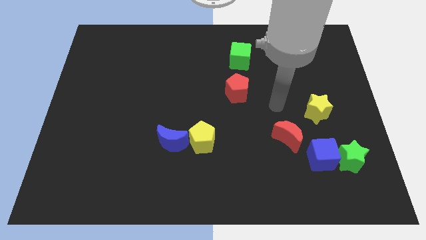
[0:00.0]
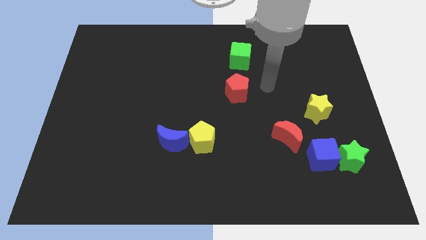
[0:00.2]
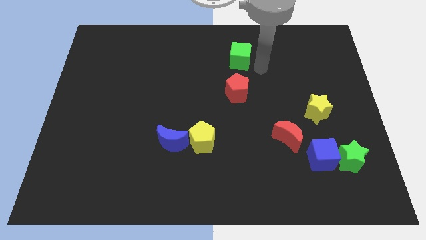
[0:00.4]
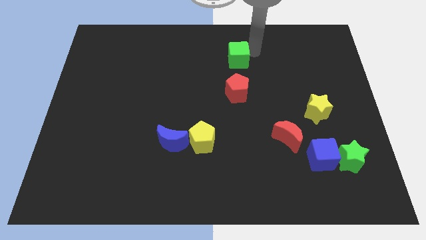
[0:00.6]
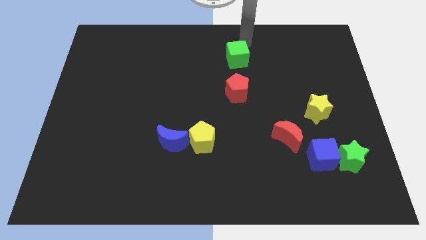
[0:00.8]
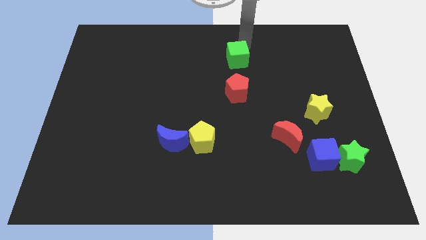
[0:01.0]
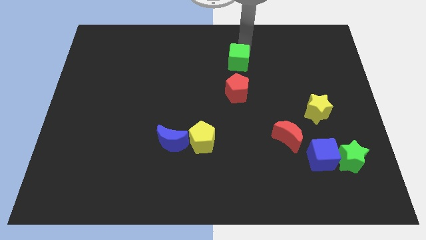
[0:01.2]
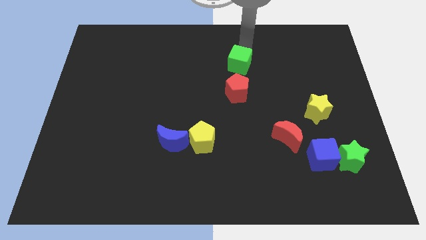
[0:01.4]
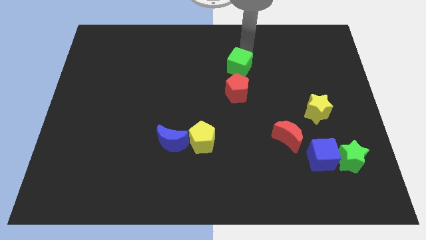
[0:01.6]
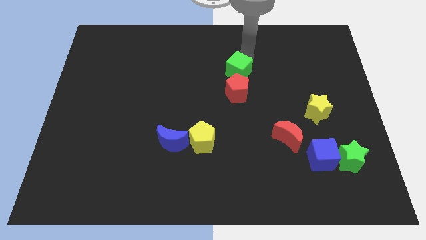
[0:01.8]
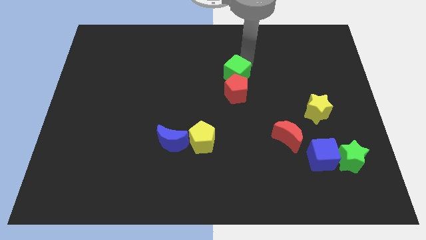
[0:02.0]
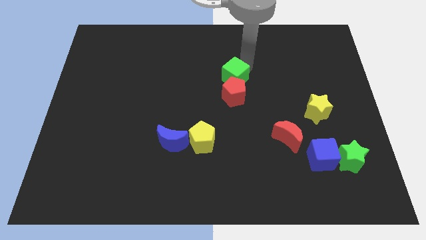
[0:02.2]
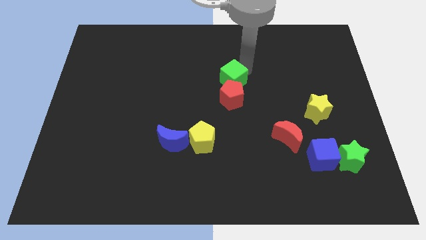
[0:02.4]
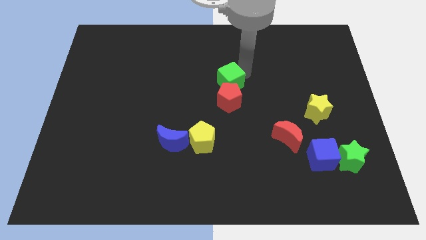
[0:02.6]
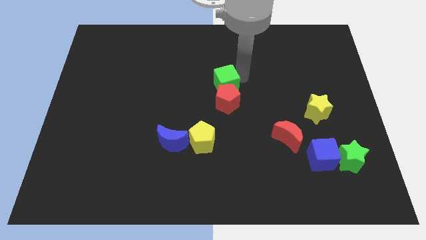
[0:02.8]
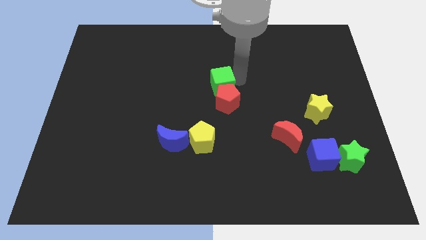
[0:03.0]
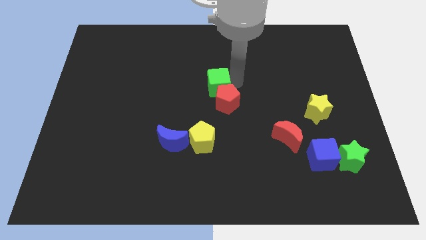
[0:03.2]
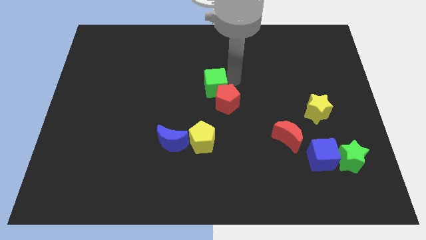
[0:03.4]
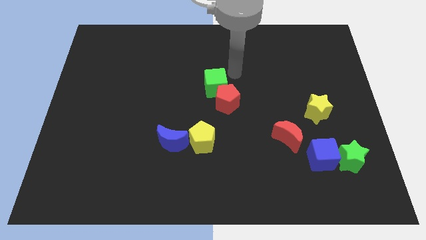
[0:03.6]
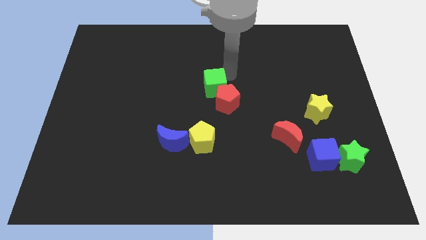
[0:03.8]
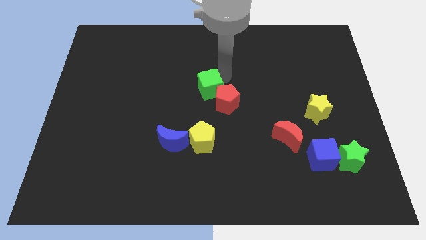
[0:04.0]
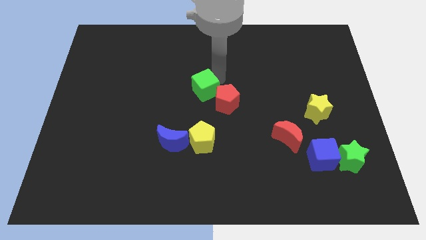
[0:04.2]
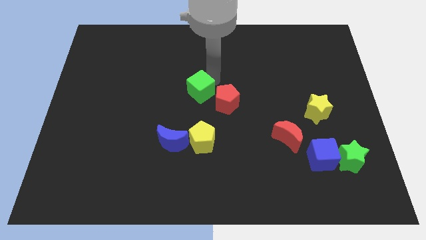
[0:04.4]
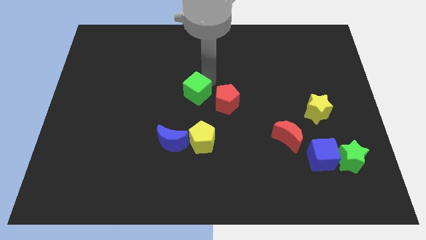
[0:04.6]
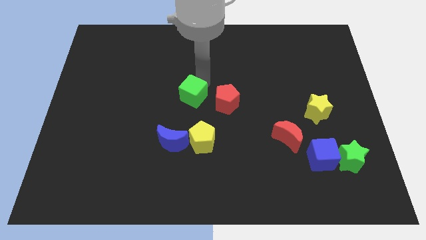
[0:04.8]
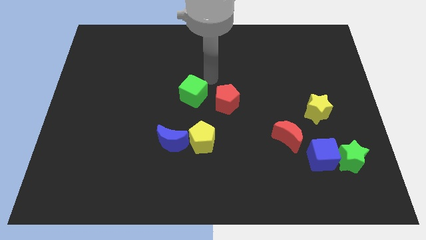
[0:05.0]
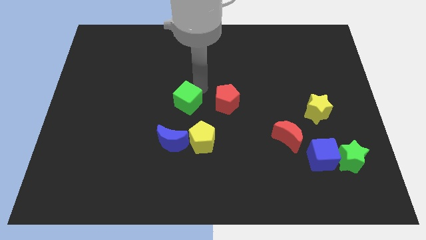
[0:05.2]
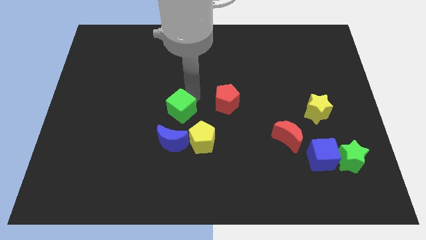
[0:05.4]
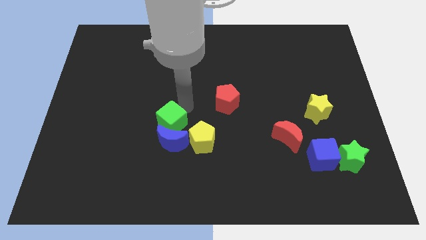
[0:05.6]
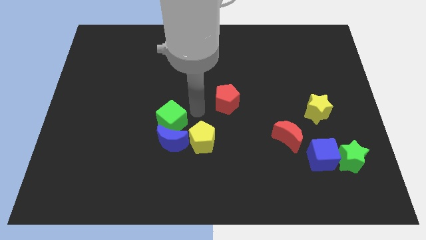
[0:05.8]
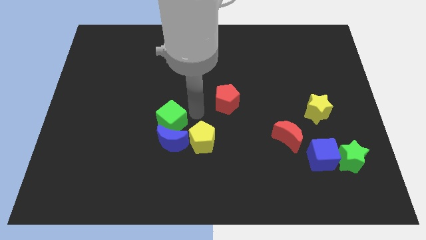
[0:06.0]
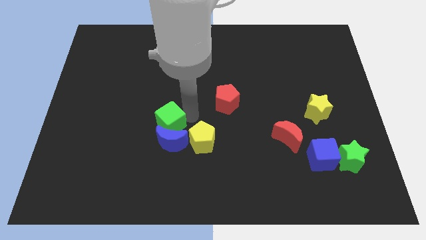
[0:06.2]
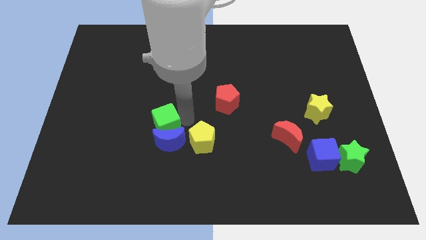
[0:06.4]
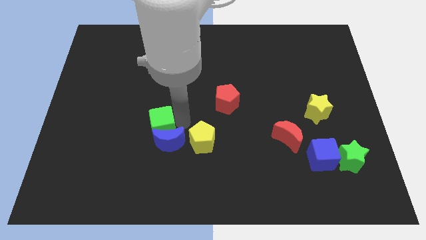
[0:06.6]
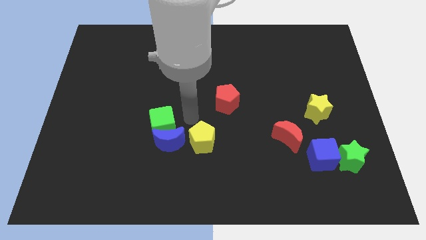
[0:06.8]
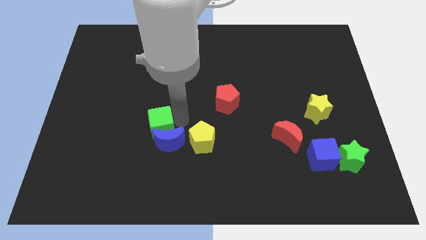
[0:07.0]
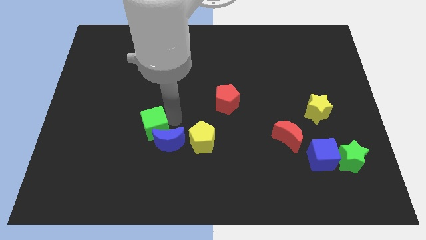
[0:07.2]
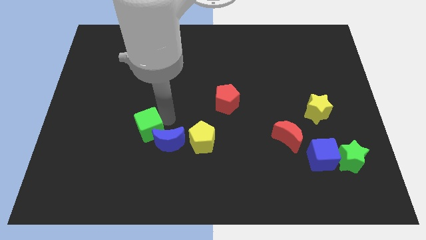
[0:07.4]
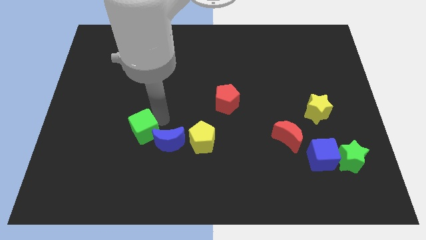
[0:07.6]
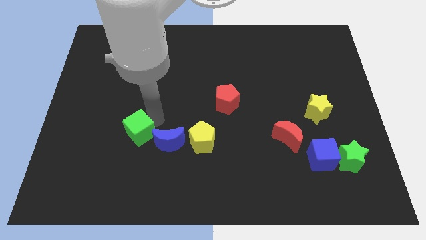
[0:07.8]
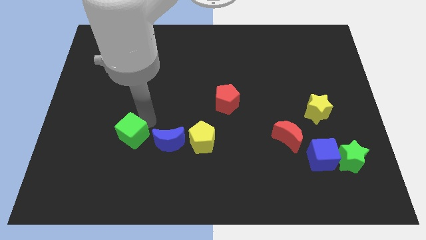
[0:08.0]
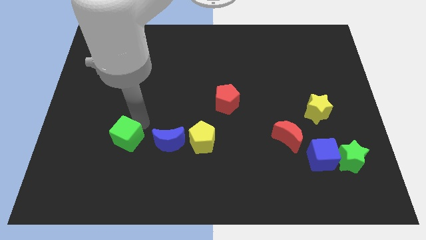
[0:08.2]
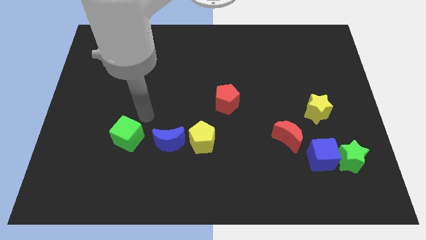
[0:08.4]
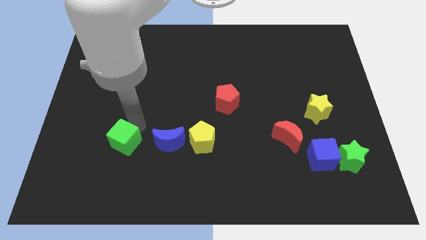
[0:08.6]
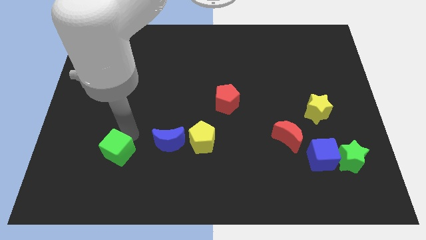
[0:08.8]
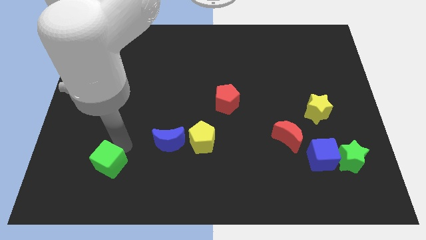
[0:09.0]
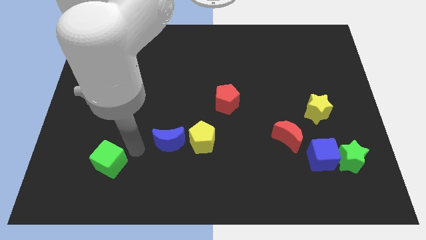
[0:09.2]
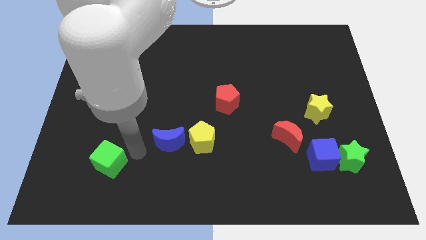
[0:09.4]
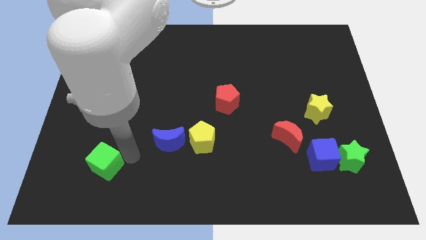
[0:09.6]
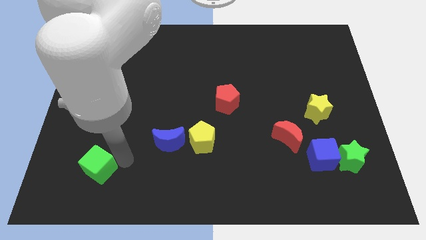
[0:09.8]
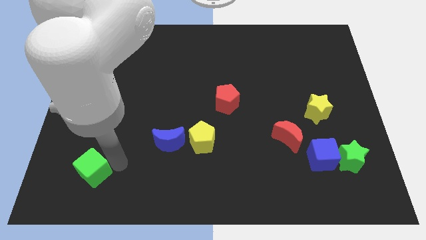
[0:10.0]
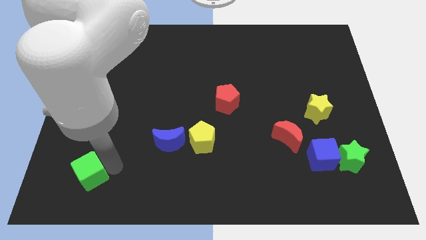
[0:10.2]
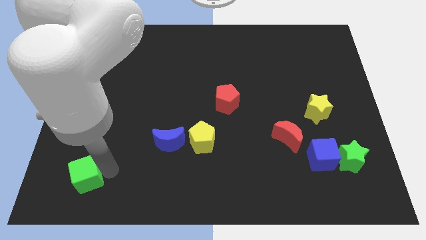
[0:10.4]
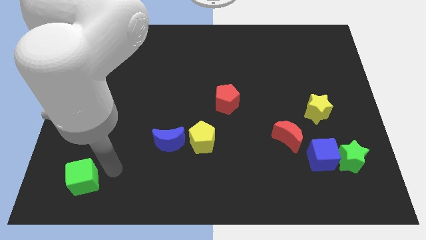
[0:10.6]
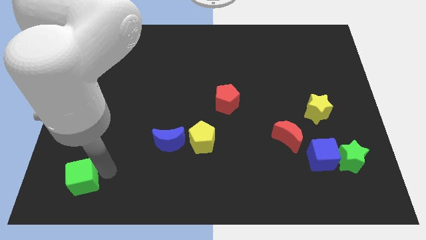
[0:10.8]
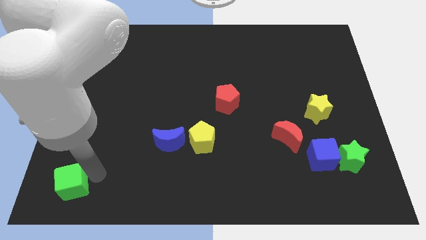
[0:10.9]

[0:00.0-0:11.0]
move the green cube to the lower left corner
